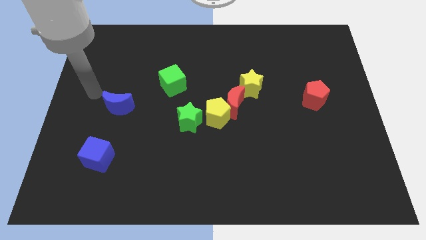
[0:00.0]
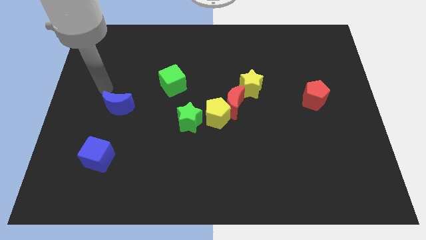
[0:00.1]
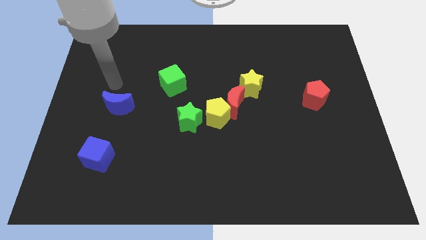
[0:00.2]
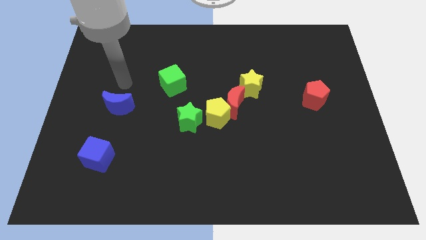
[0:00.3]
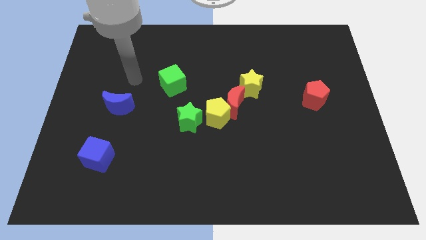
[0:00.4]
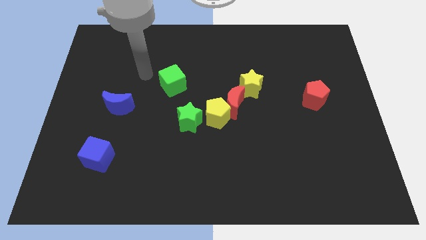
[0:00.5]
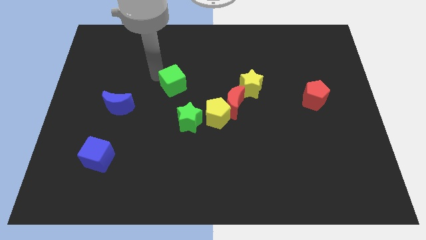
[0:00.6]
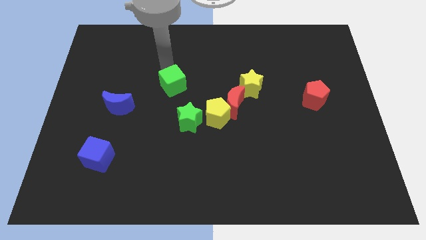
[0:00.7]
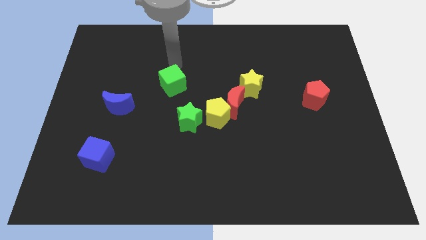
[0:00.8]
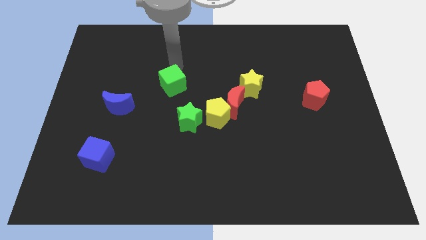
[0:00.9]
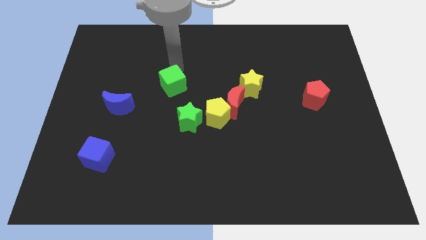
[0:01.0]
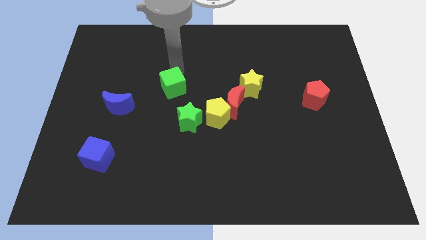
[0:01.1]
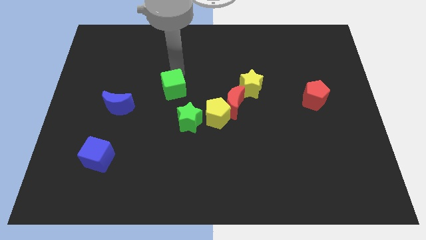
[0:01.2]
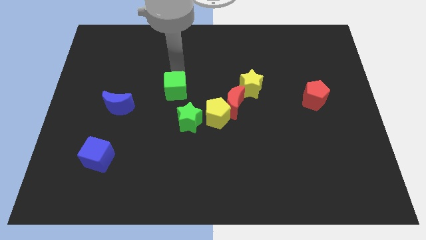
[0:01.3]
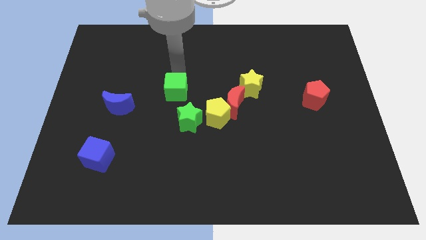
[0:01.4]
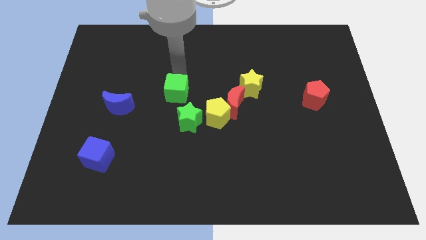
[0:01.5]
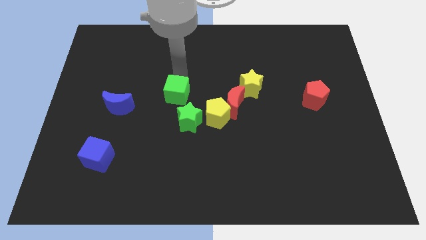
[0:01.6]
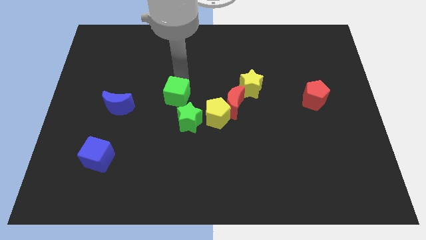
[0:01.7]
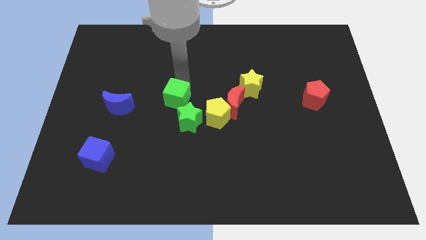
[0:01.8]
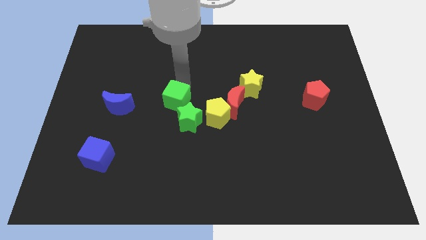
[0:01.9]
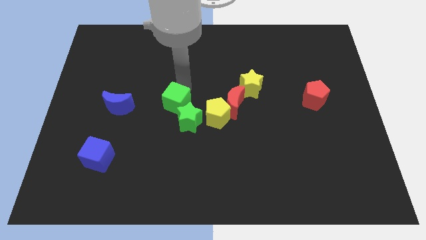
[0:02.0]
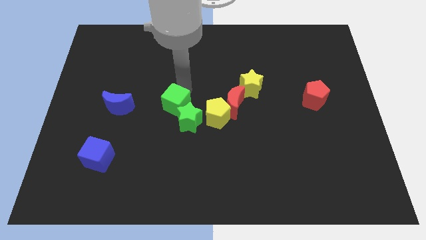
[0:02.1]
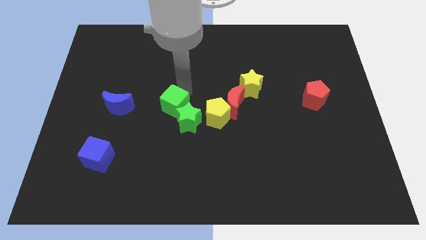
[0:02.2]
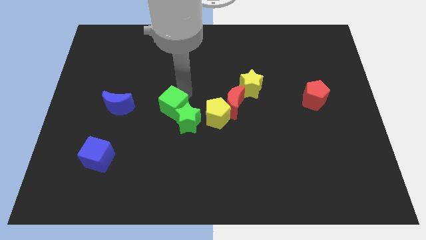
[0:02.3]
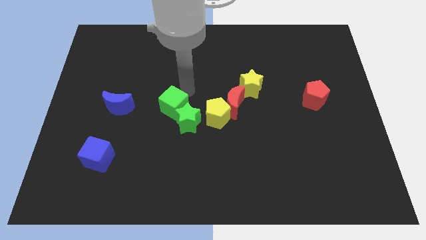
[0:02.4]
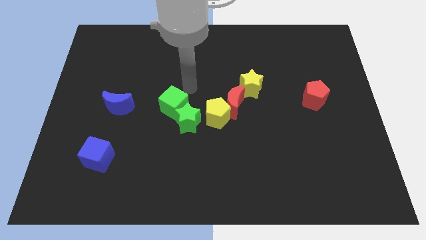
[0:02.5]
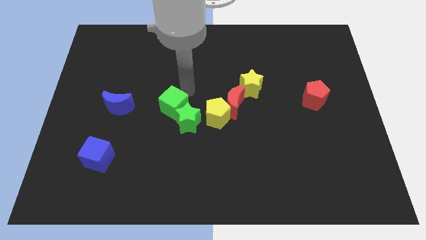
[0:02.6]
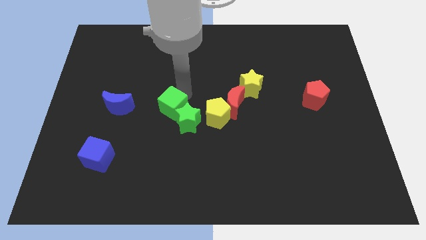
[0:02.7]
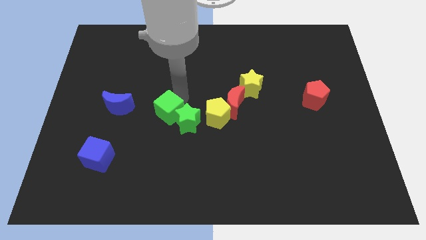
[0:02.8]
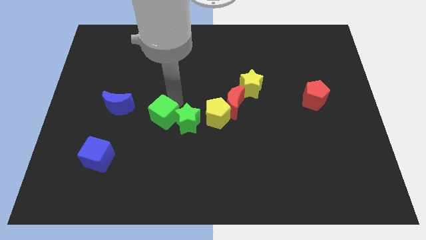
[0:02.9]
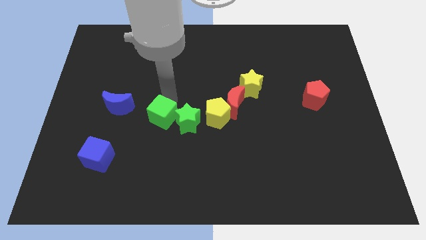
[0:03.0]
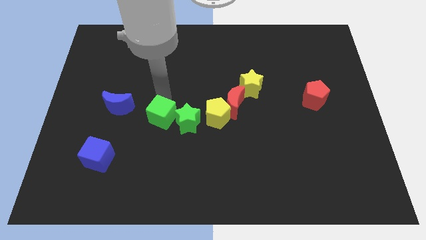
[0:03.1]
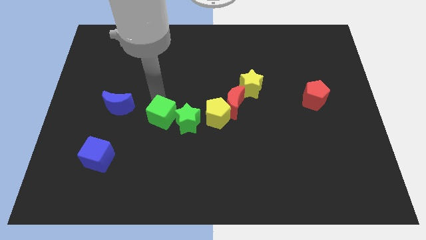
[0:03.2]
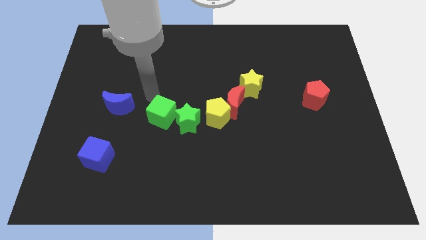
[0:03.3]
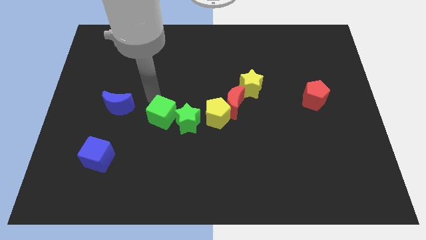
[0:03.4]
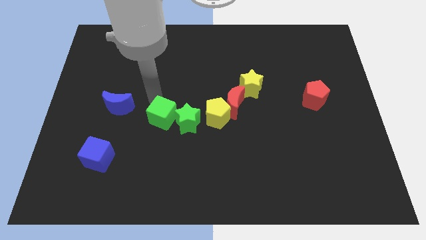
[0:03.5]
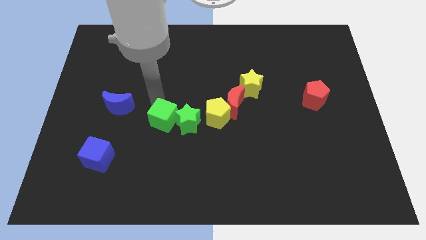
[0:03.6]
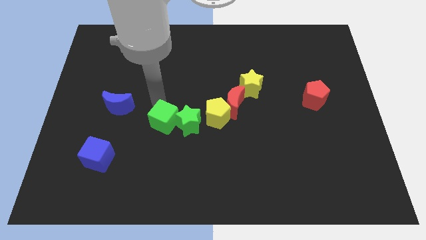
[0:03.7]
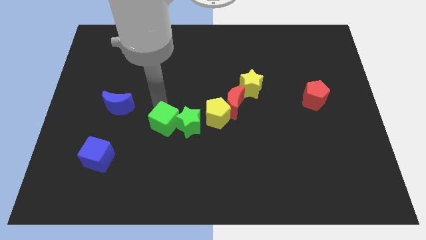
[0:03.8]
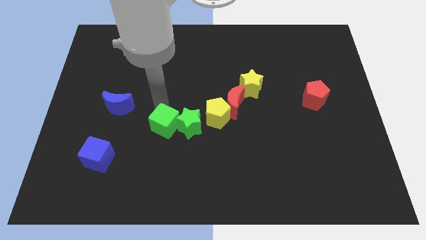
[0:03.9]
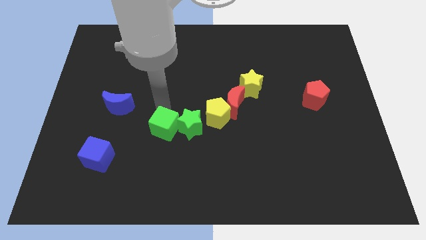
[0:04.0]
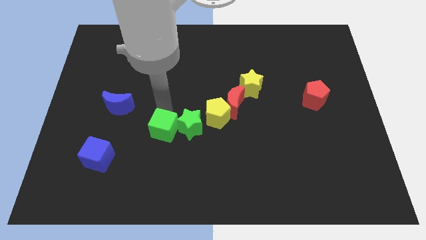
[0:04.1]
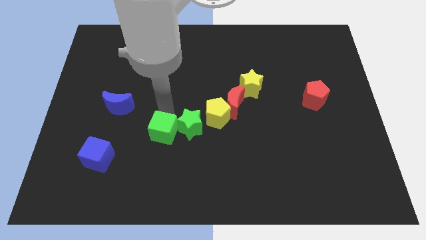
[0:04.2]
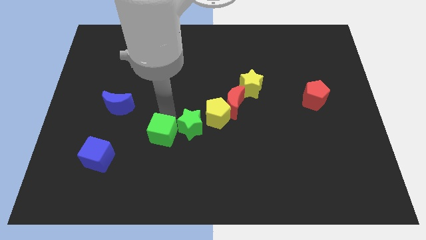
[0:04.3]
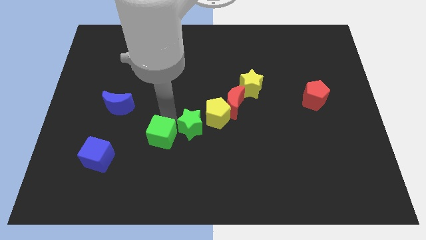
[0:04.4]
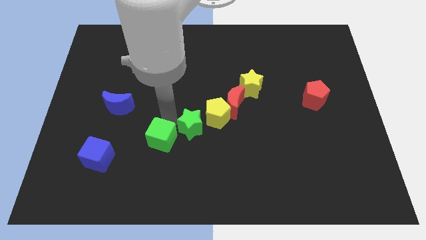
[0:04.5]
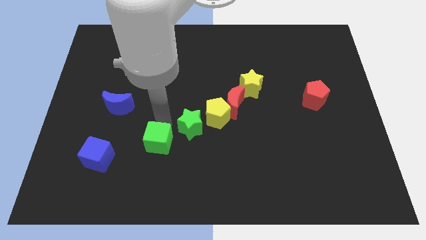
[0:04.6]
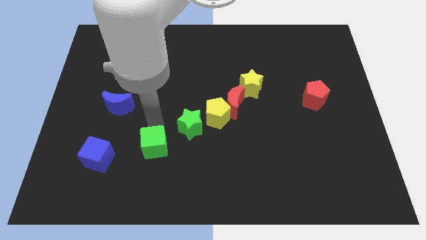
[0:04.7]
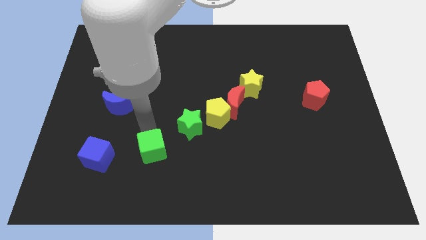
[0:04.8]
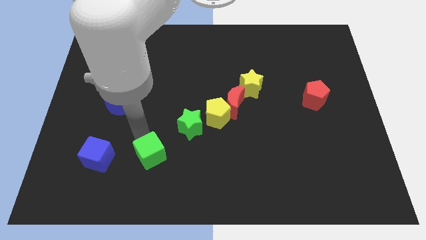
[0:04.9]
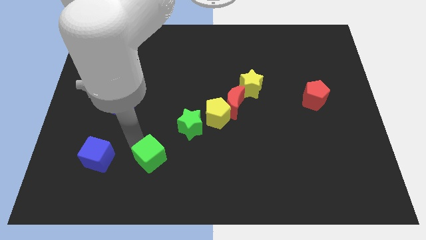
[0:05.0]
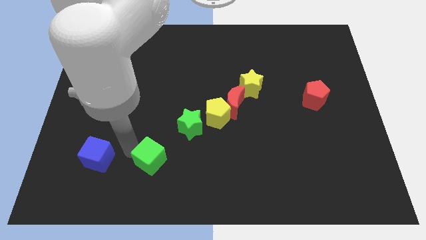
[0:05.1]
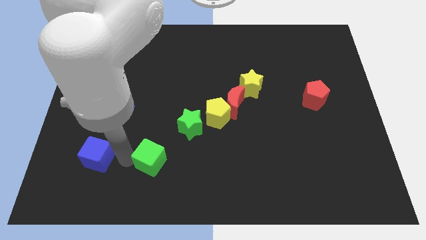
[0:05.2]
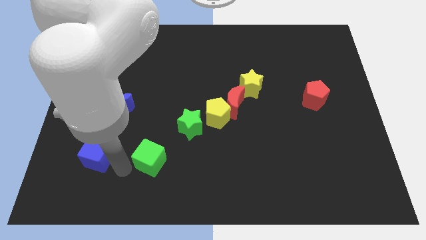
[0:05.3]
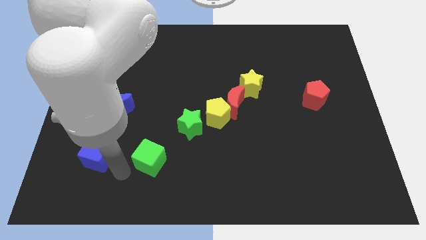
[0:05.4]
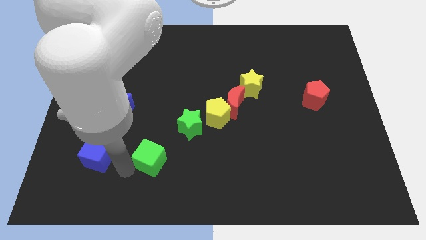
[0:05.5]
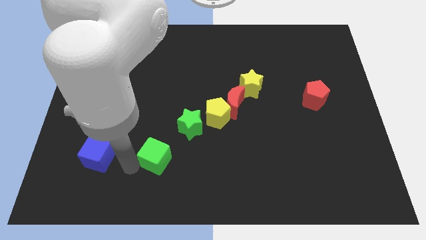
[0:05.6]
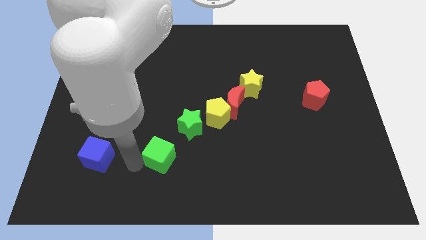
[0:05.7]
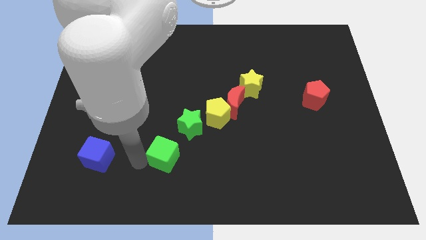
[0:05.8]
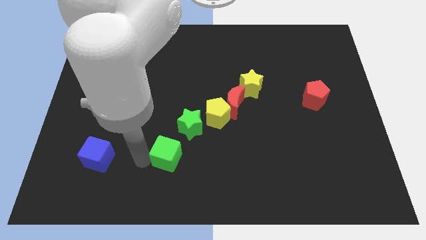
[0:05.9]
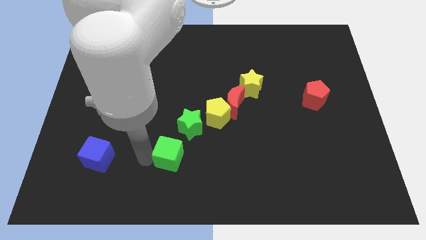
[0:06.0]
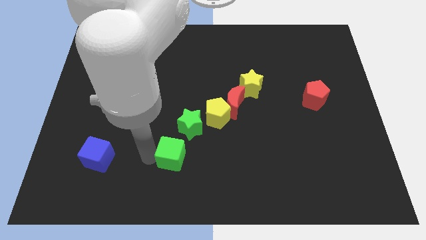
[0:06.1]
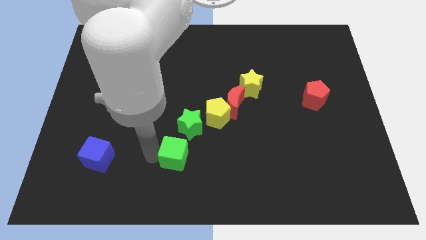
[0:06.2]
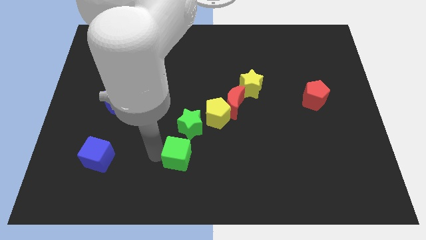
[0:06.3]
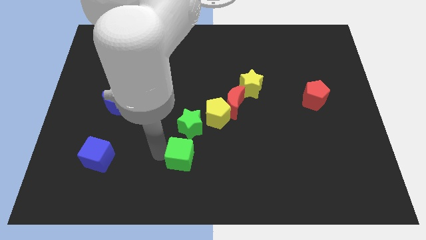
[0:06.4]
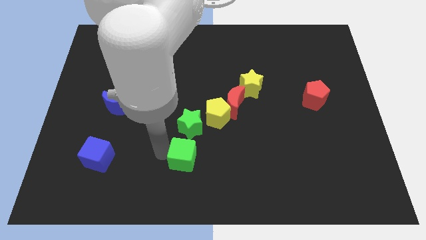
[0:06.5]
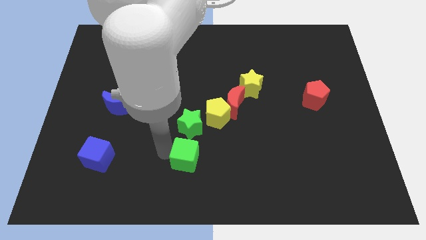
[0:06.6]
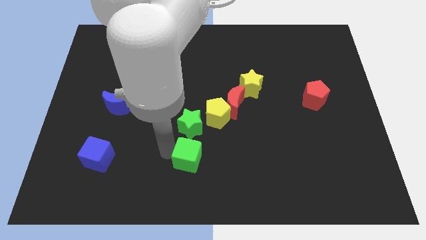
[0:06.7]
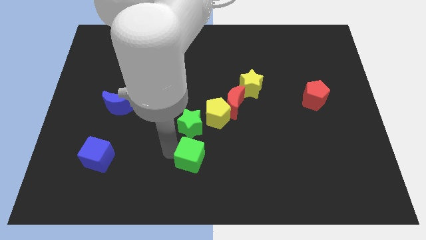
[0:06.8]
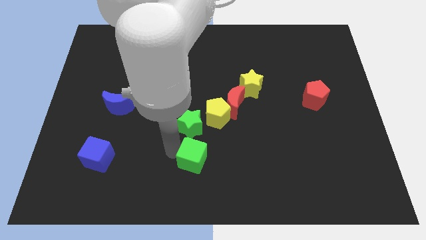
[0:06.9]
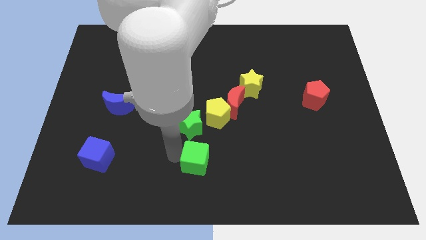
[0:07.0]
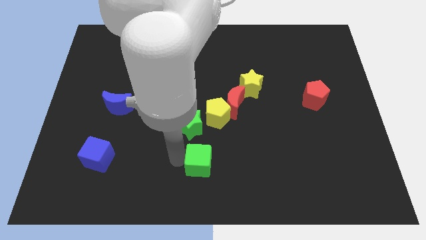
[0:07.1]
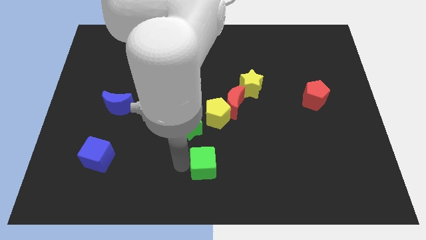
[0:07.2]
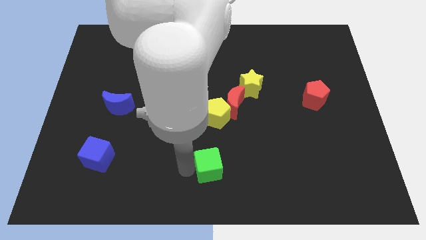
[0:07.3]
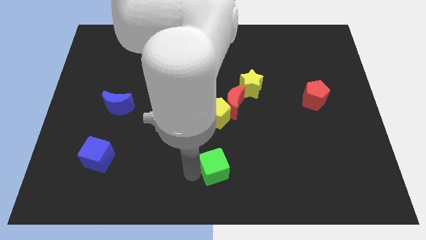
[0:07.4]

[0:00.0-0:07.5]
push the green cube diagonally downwards and to the right

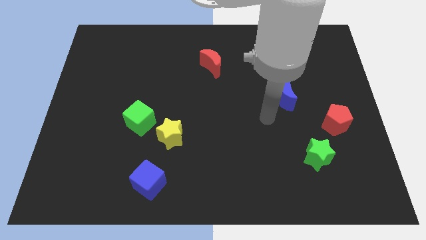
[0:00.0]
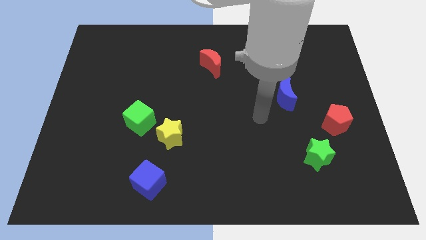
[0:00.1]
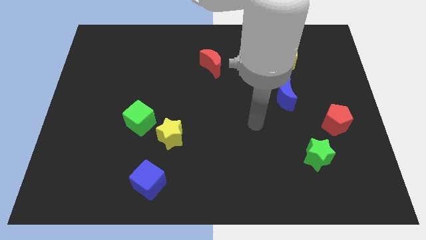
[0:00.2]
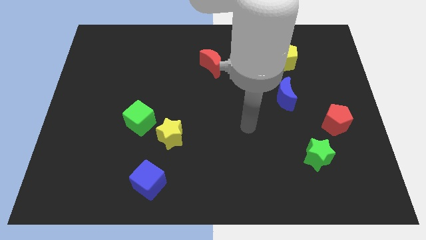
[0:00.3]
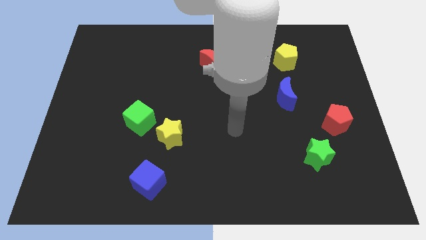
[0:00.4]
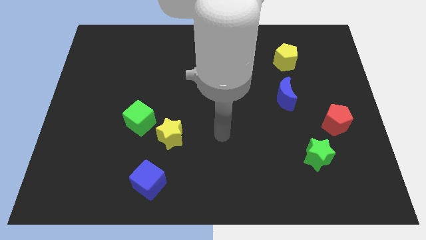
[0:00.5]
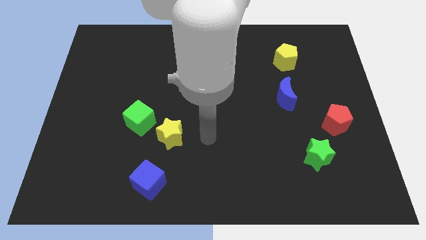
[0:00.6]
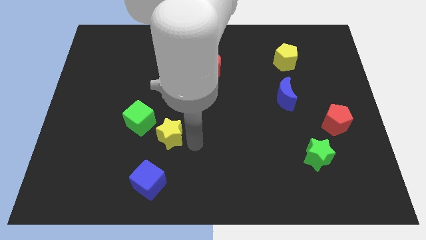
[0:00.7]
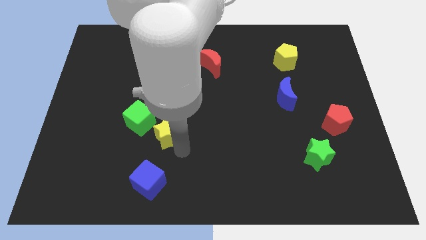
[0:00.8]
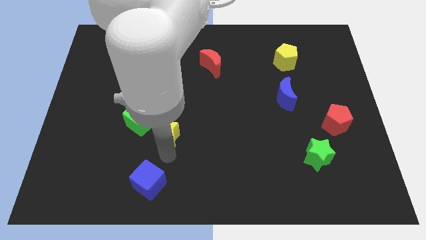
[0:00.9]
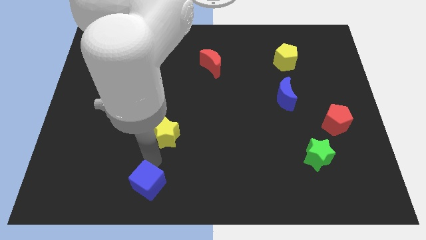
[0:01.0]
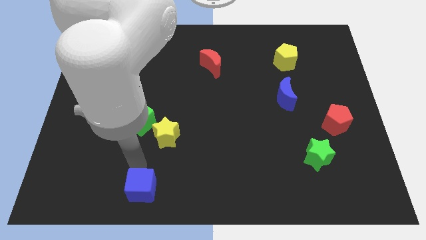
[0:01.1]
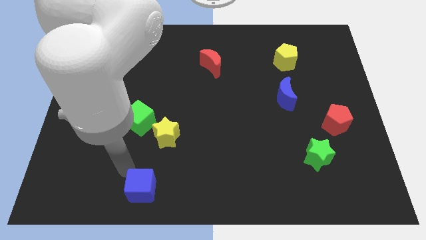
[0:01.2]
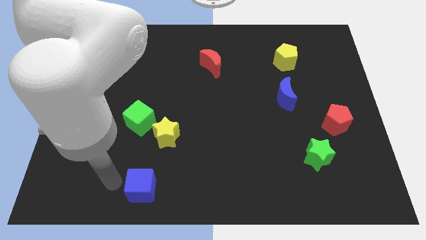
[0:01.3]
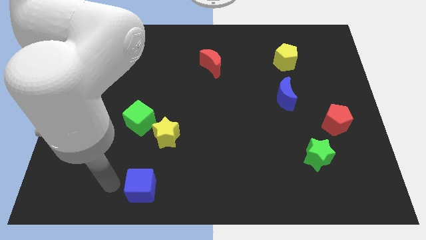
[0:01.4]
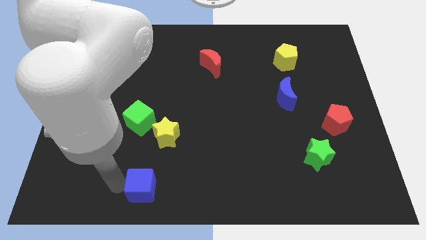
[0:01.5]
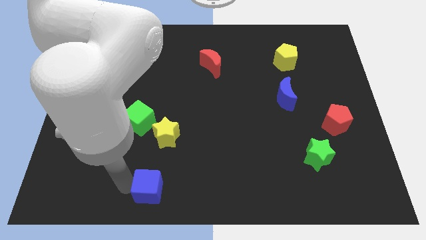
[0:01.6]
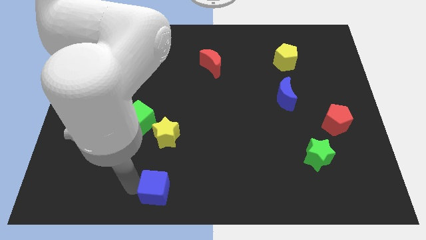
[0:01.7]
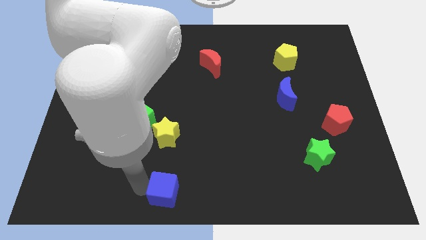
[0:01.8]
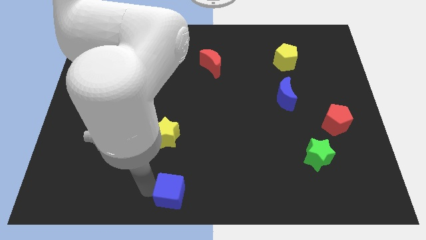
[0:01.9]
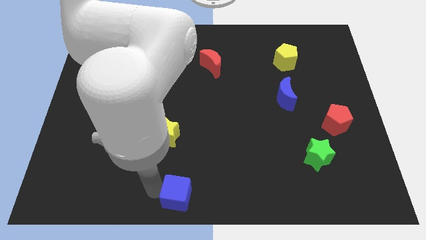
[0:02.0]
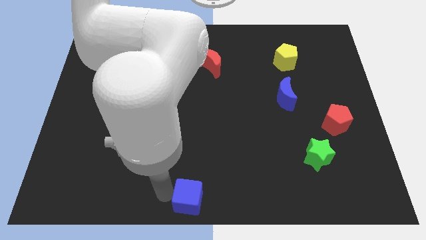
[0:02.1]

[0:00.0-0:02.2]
slightly push the blue cube right
